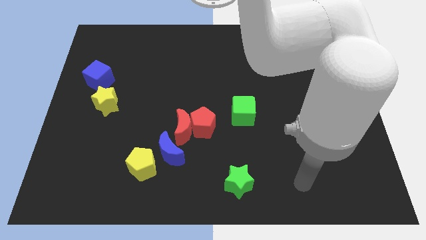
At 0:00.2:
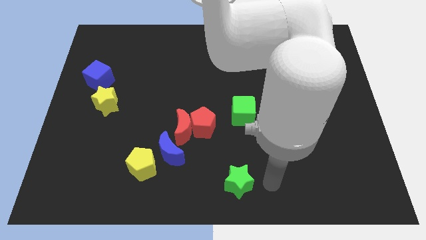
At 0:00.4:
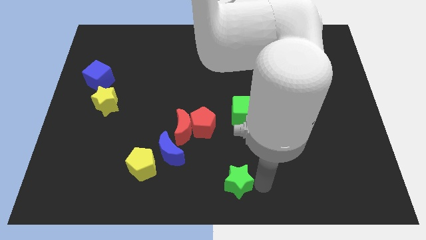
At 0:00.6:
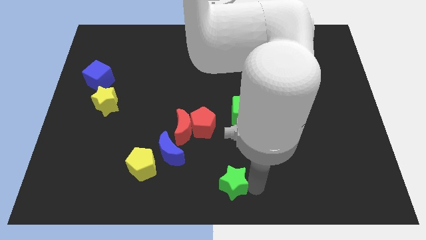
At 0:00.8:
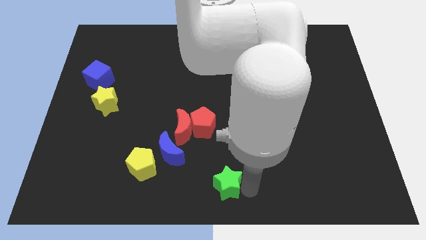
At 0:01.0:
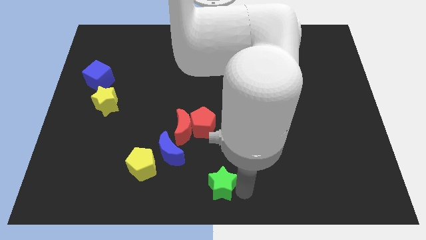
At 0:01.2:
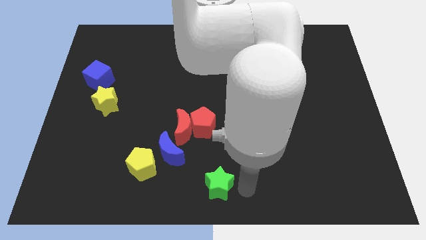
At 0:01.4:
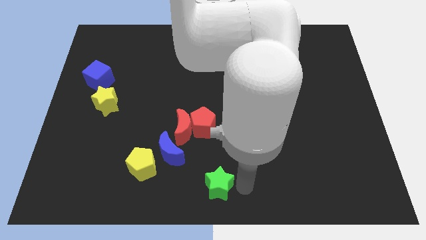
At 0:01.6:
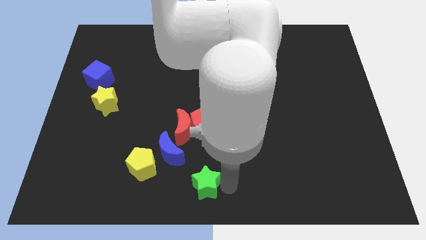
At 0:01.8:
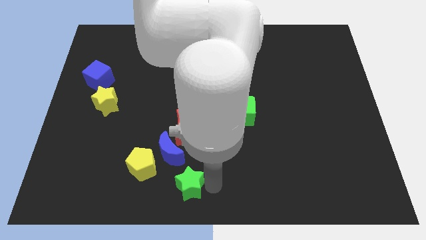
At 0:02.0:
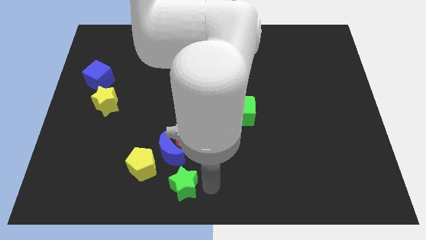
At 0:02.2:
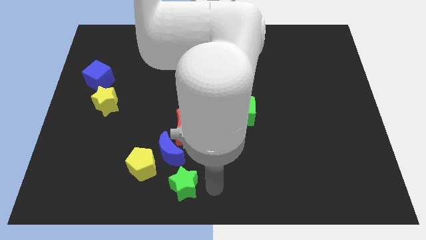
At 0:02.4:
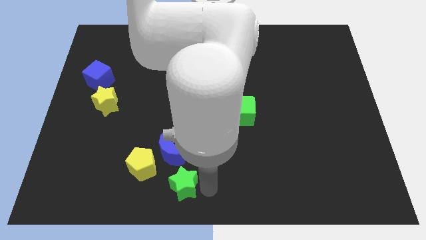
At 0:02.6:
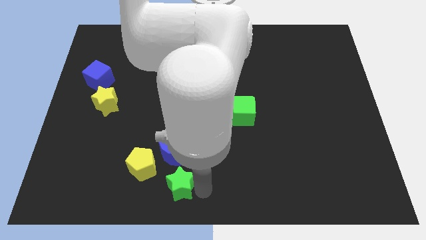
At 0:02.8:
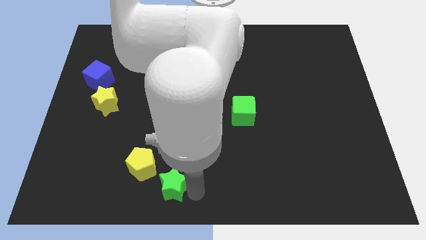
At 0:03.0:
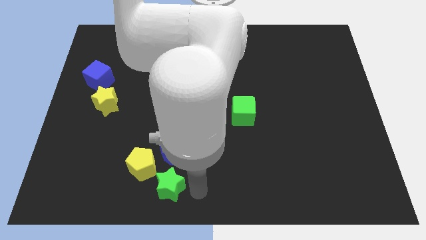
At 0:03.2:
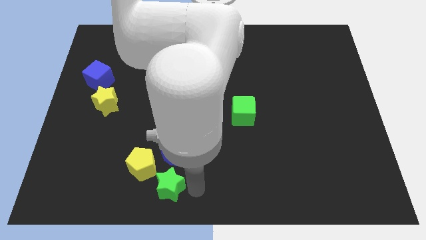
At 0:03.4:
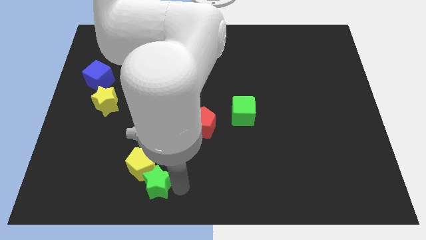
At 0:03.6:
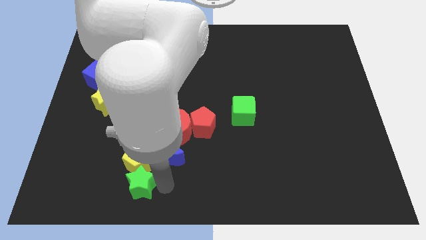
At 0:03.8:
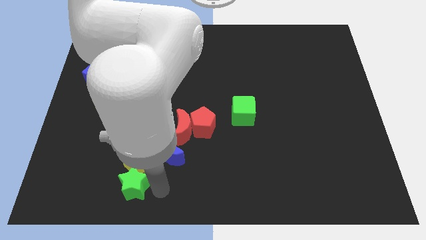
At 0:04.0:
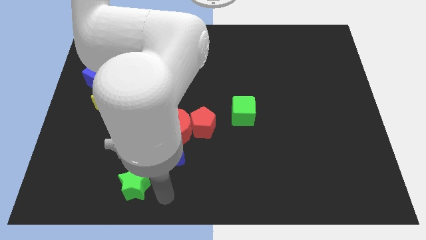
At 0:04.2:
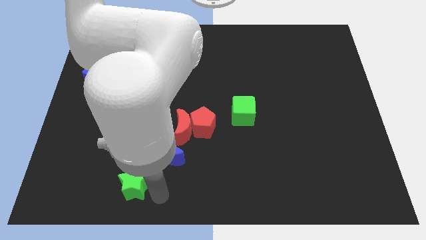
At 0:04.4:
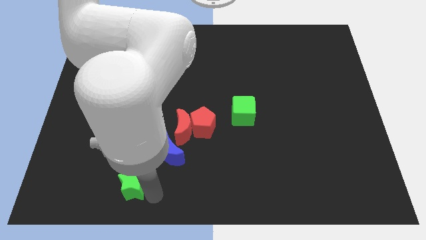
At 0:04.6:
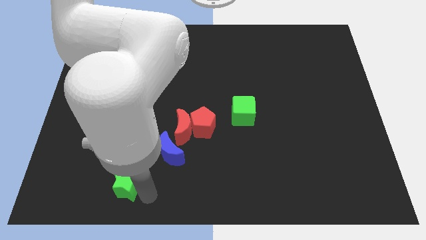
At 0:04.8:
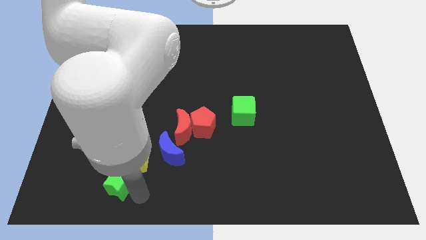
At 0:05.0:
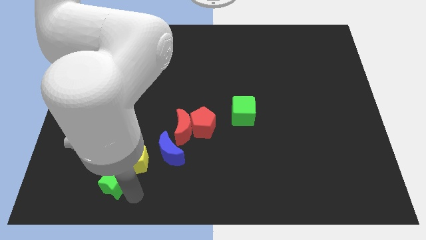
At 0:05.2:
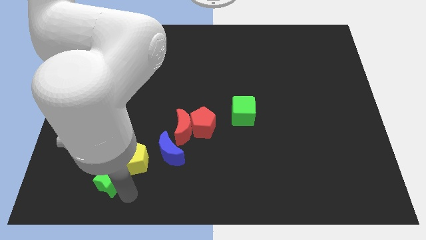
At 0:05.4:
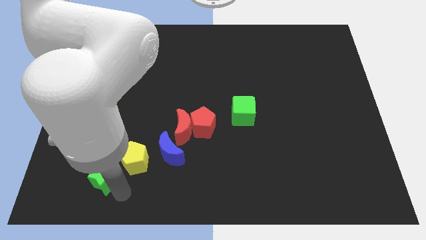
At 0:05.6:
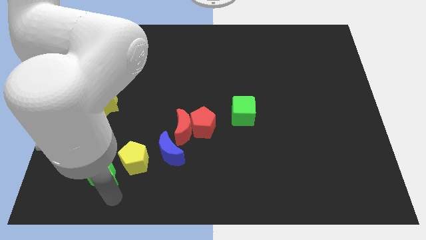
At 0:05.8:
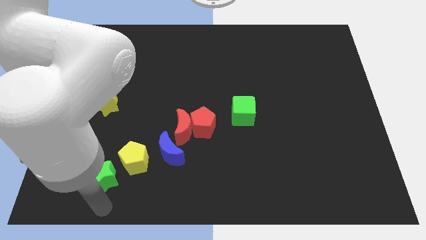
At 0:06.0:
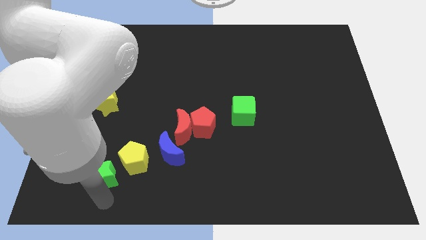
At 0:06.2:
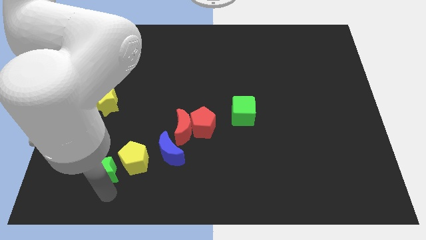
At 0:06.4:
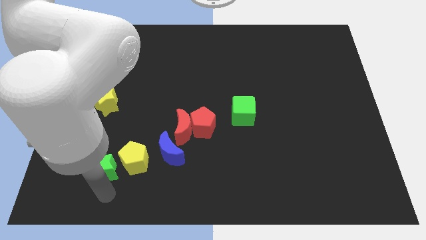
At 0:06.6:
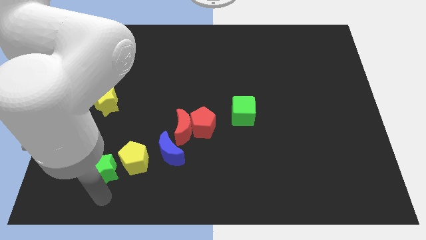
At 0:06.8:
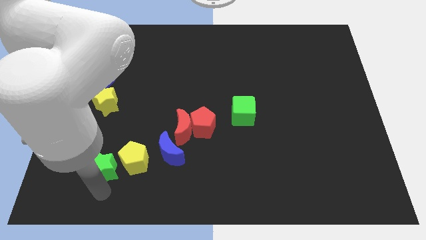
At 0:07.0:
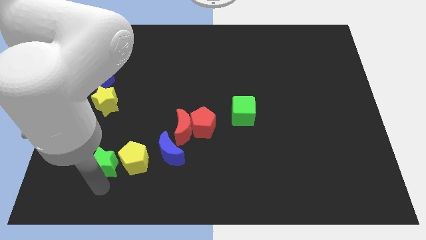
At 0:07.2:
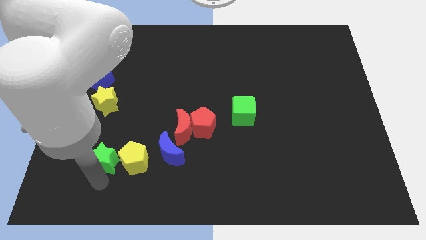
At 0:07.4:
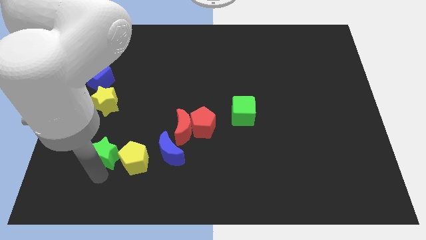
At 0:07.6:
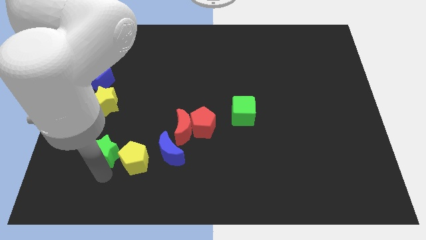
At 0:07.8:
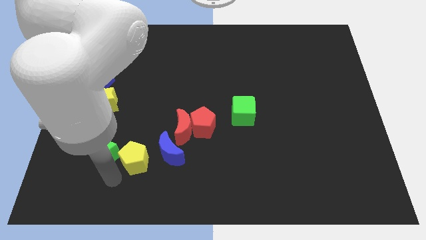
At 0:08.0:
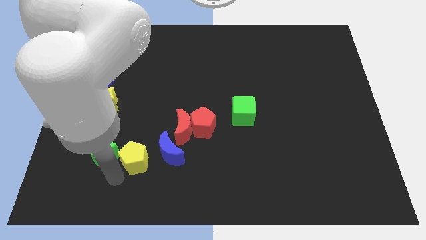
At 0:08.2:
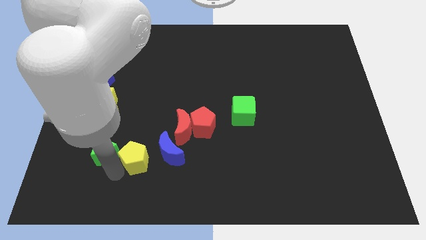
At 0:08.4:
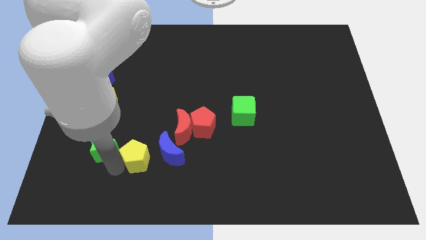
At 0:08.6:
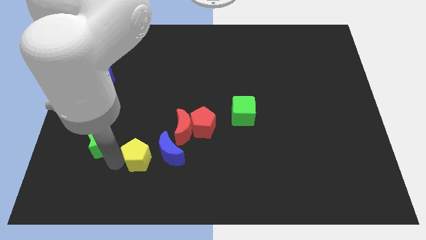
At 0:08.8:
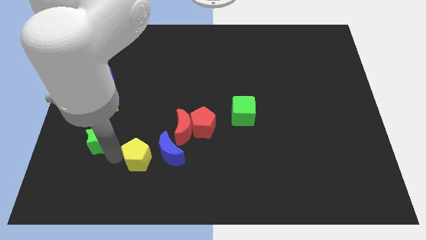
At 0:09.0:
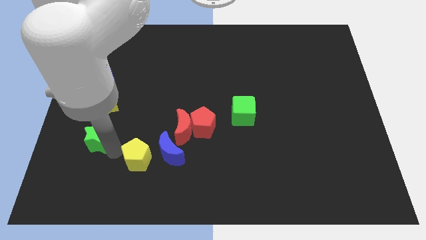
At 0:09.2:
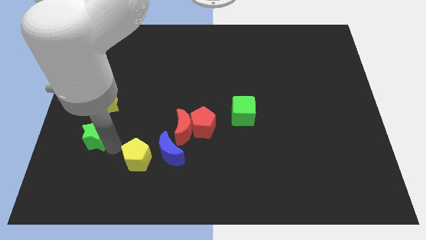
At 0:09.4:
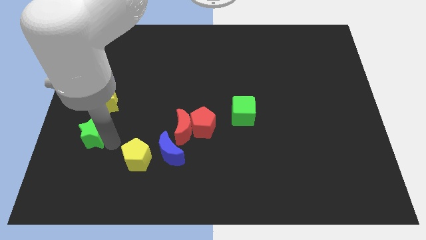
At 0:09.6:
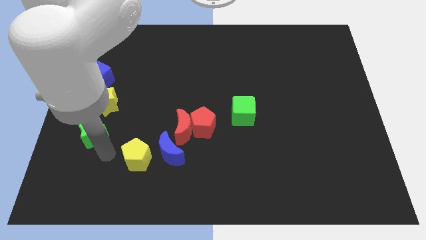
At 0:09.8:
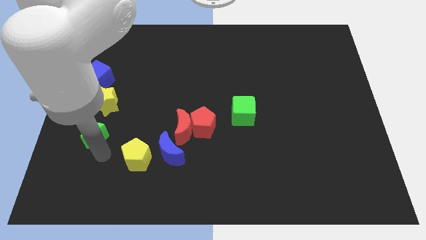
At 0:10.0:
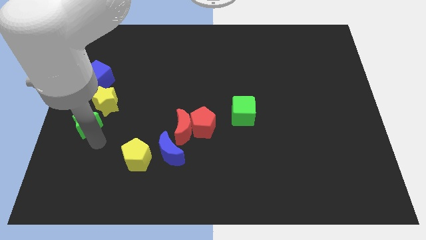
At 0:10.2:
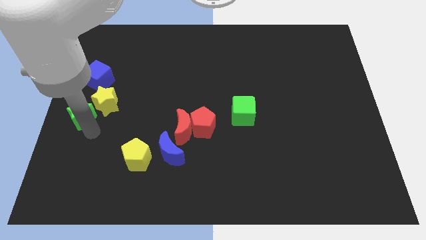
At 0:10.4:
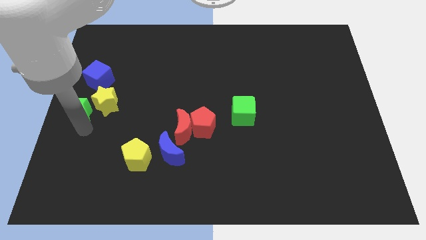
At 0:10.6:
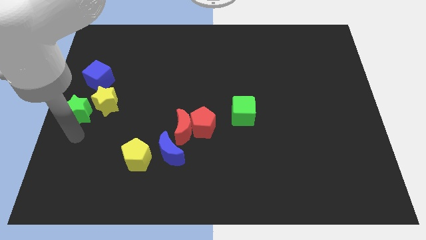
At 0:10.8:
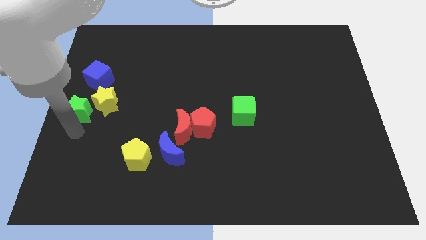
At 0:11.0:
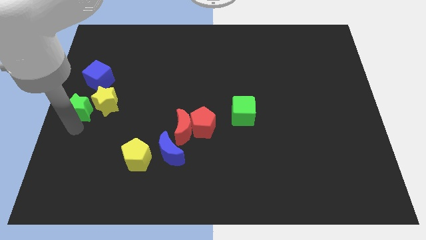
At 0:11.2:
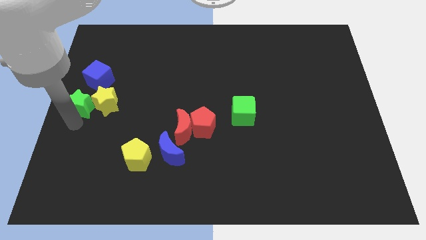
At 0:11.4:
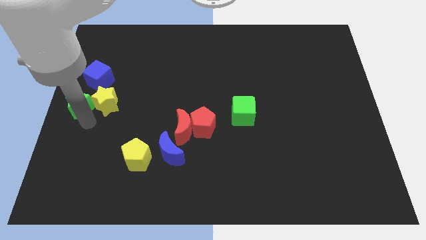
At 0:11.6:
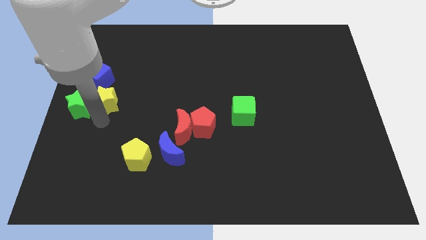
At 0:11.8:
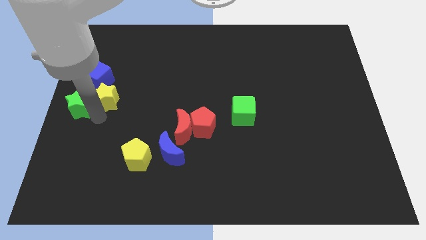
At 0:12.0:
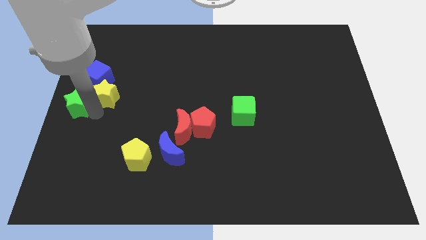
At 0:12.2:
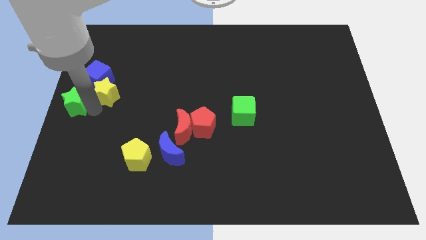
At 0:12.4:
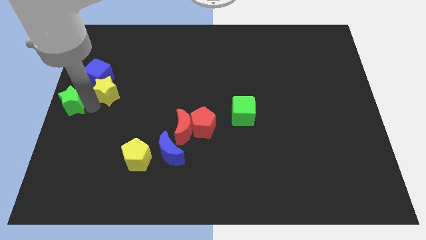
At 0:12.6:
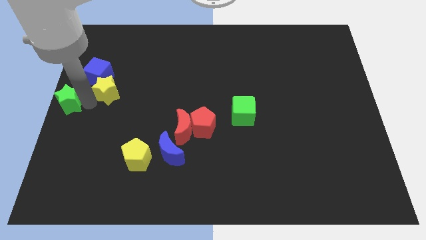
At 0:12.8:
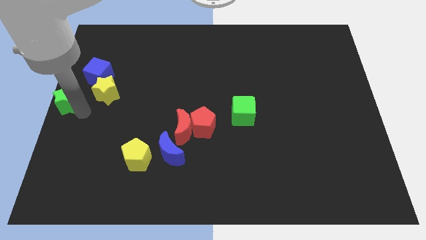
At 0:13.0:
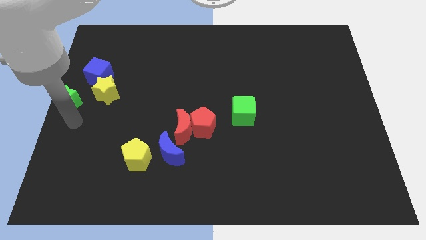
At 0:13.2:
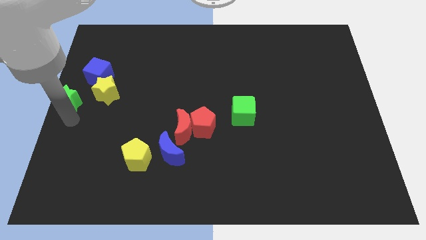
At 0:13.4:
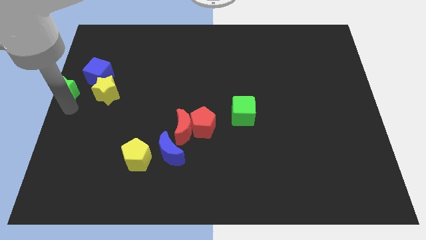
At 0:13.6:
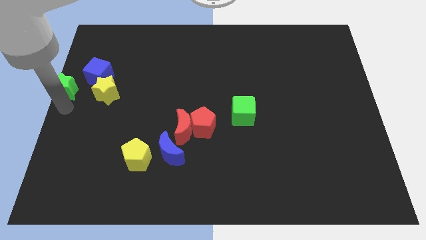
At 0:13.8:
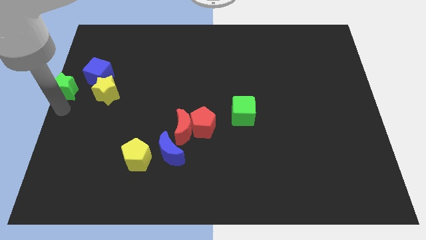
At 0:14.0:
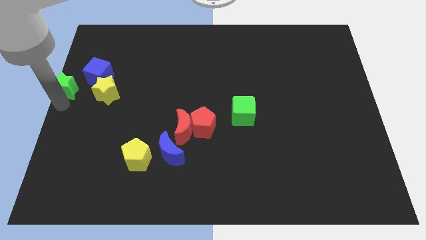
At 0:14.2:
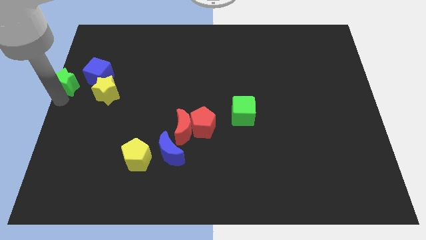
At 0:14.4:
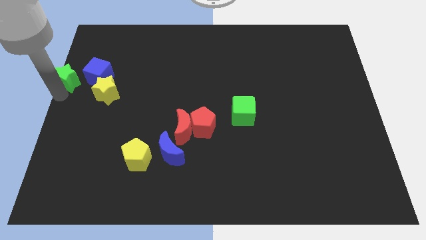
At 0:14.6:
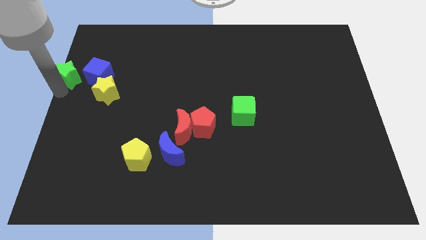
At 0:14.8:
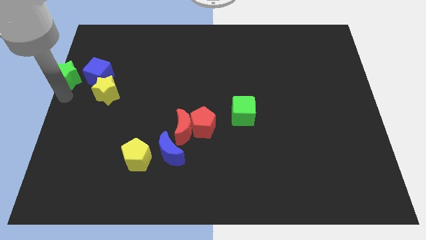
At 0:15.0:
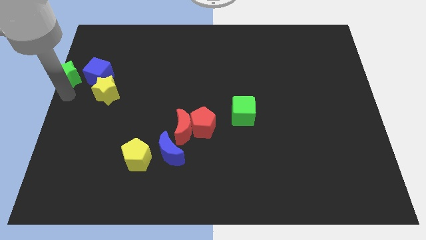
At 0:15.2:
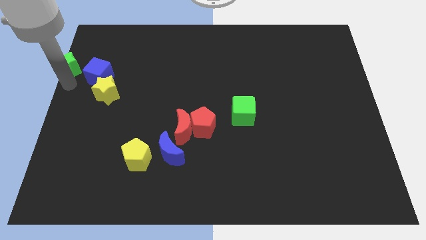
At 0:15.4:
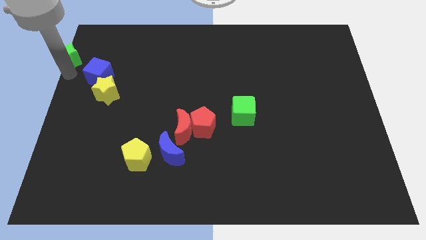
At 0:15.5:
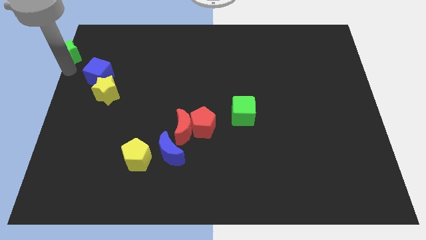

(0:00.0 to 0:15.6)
push the green star to the upper left corner

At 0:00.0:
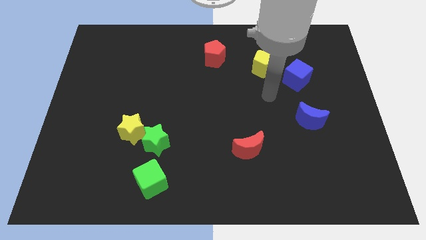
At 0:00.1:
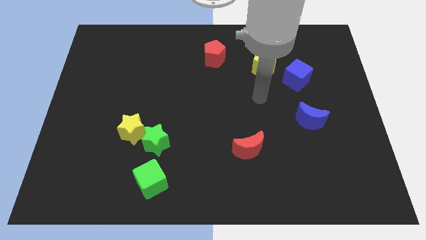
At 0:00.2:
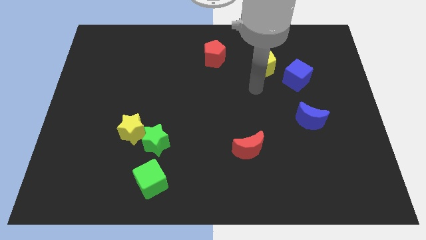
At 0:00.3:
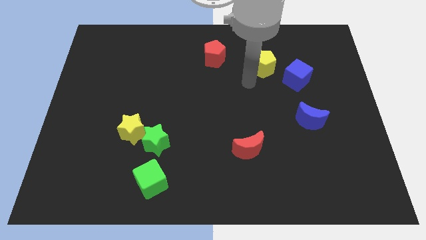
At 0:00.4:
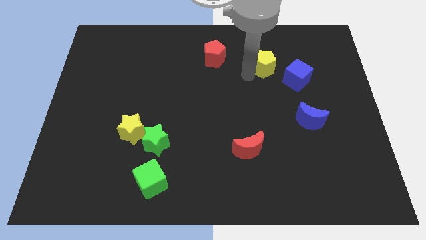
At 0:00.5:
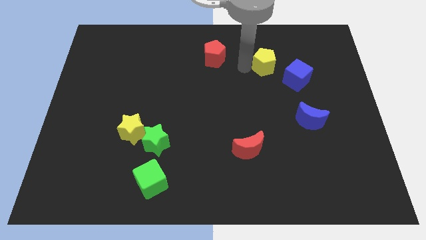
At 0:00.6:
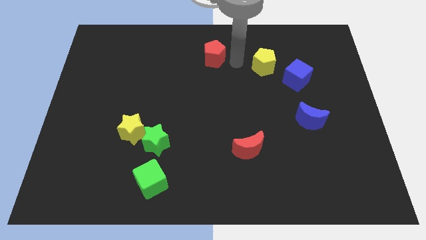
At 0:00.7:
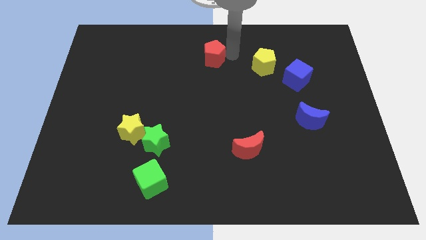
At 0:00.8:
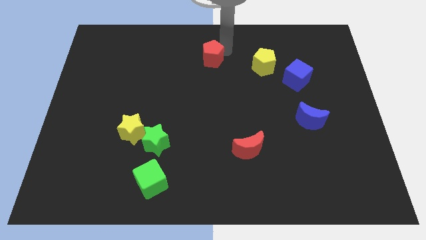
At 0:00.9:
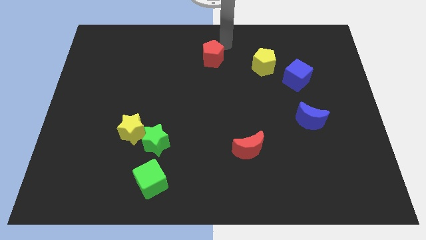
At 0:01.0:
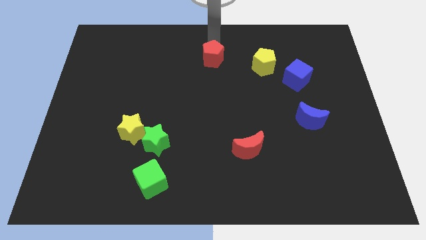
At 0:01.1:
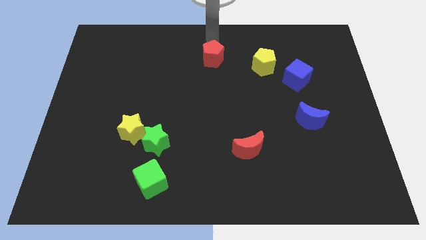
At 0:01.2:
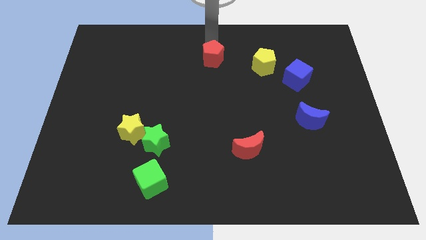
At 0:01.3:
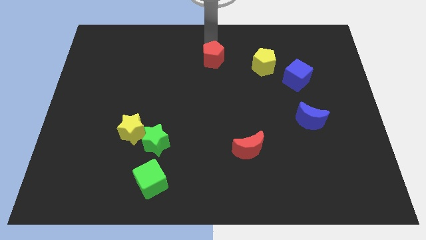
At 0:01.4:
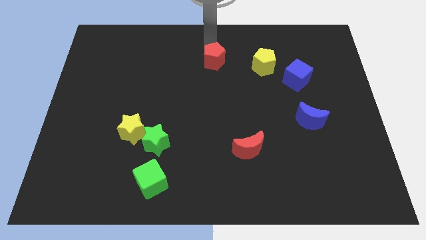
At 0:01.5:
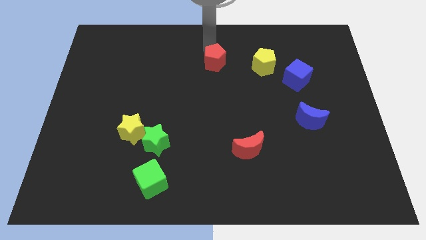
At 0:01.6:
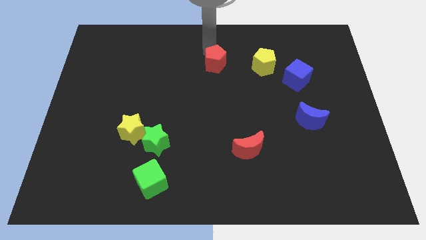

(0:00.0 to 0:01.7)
slide the red pentagon to the center of the board
